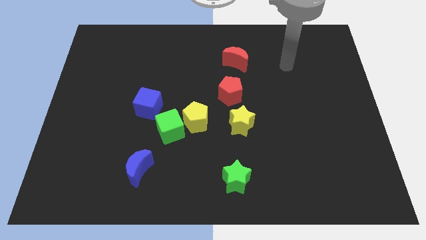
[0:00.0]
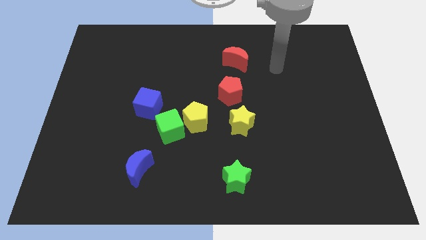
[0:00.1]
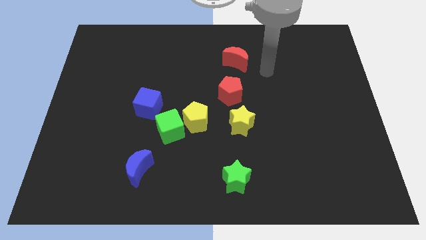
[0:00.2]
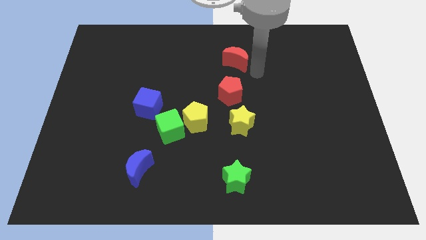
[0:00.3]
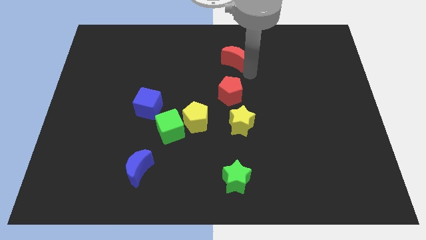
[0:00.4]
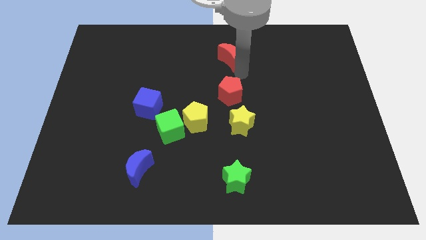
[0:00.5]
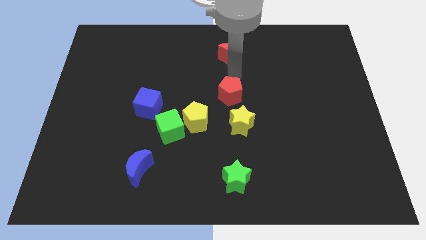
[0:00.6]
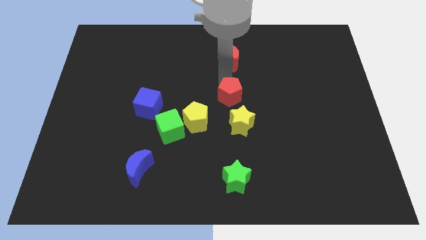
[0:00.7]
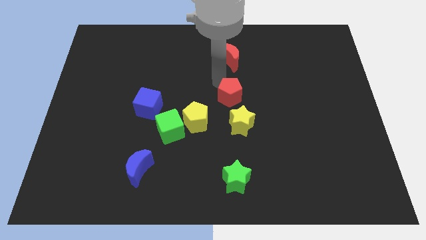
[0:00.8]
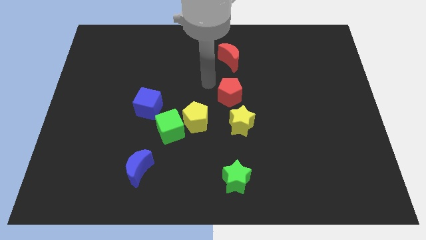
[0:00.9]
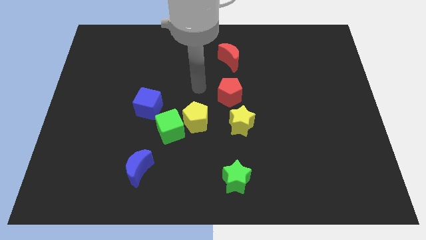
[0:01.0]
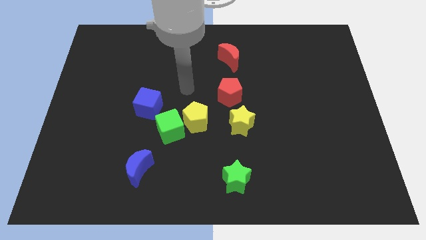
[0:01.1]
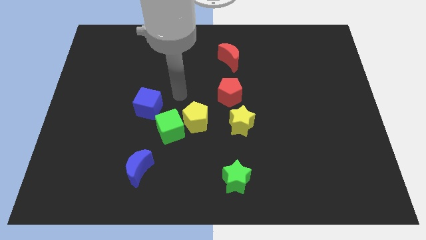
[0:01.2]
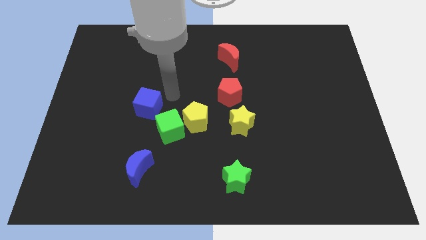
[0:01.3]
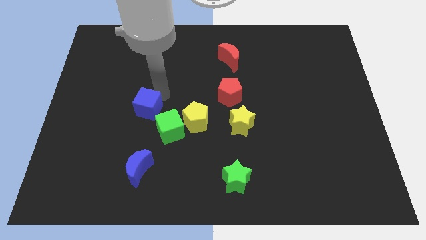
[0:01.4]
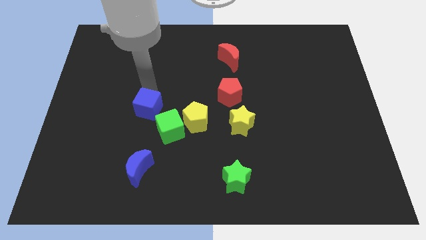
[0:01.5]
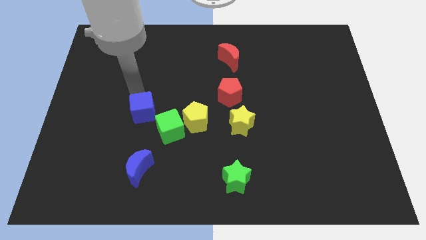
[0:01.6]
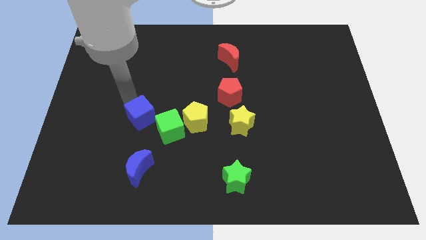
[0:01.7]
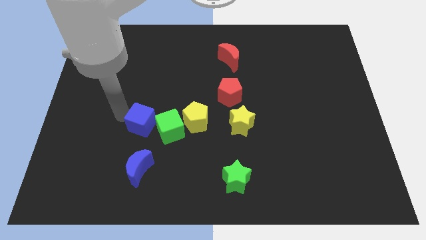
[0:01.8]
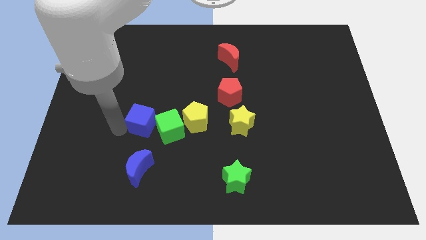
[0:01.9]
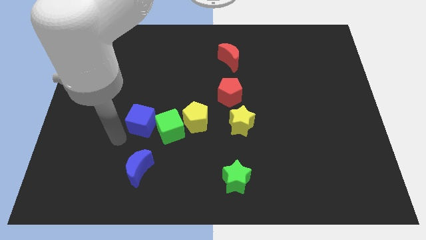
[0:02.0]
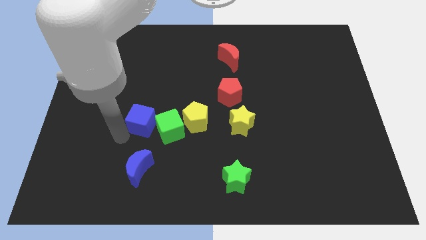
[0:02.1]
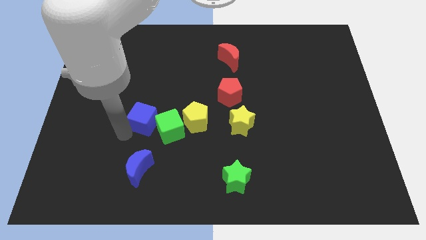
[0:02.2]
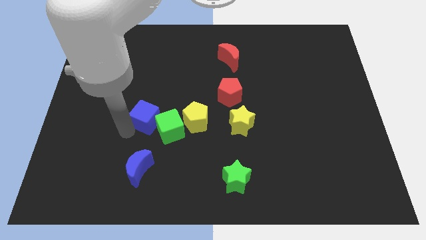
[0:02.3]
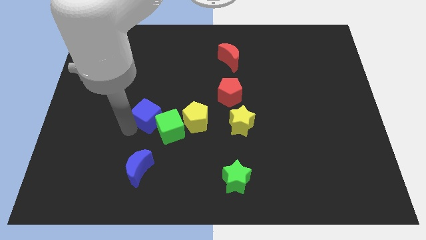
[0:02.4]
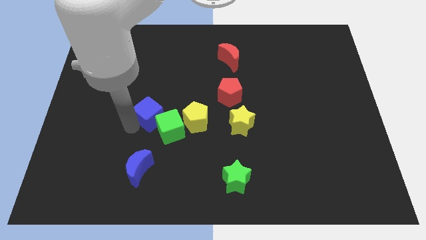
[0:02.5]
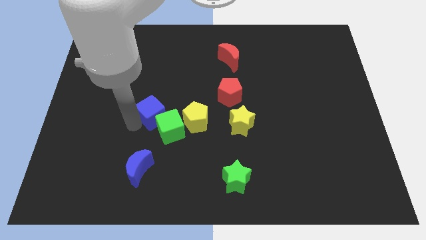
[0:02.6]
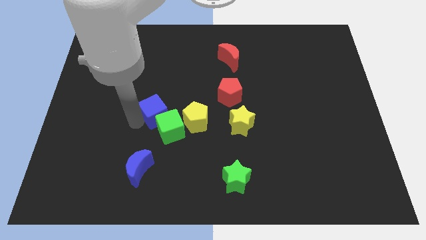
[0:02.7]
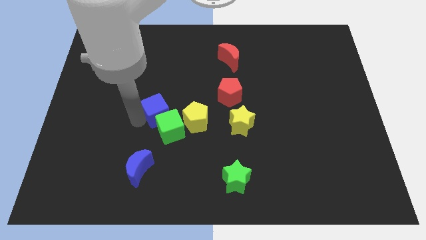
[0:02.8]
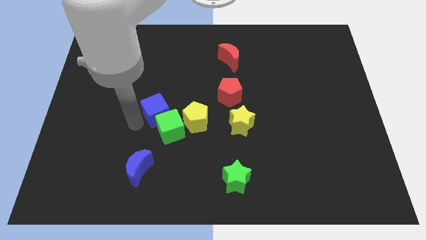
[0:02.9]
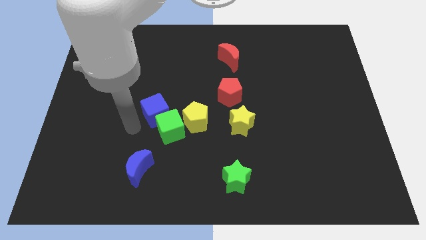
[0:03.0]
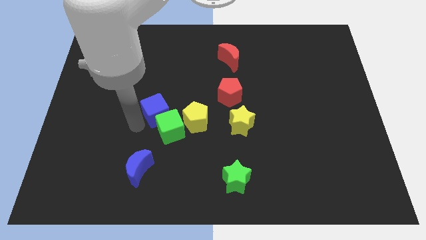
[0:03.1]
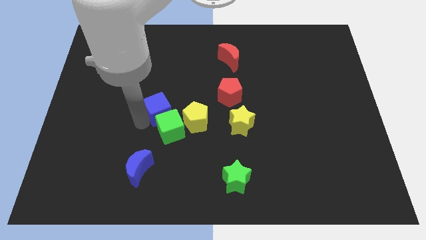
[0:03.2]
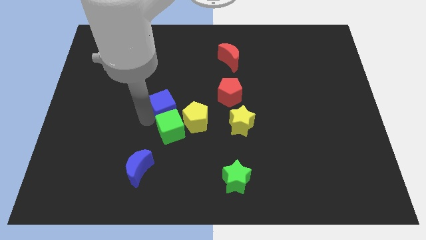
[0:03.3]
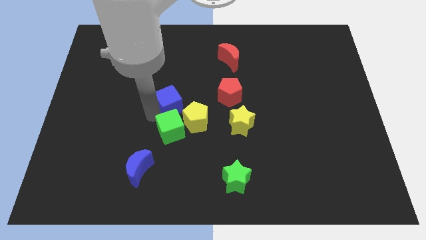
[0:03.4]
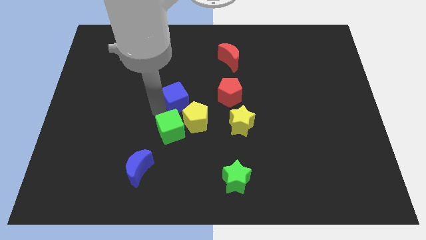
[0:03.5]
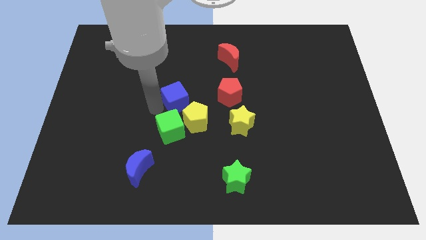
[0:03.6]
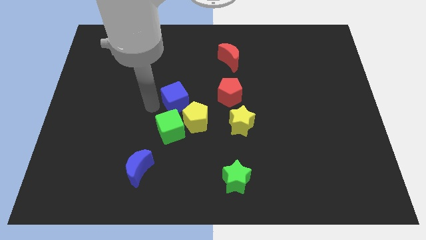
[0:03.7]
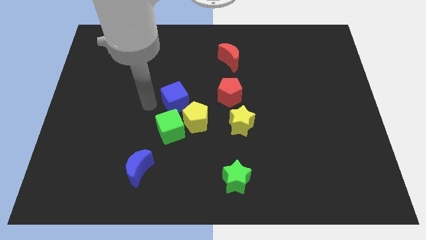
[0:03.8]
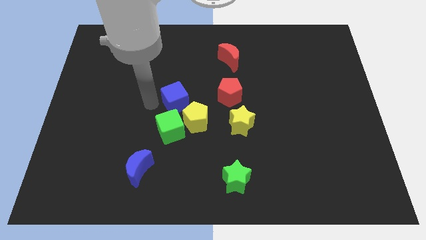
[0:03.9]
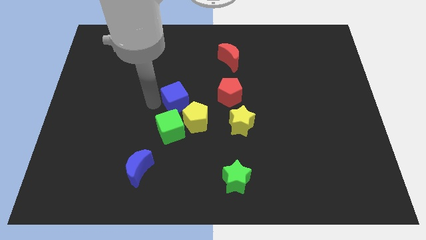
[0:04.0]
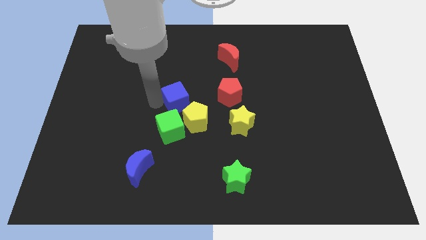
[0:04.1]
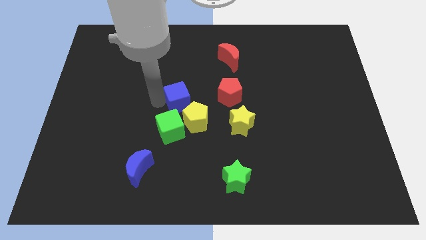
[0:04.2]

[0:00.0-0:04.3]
slightly slide the blue cube right

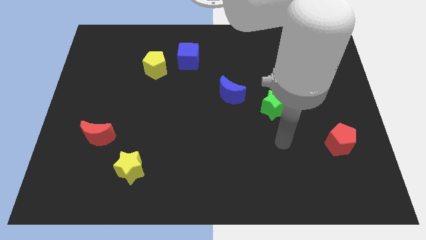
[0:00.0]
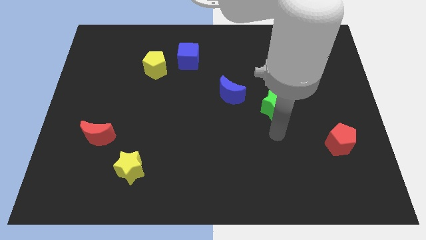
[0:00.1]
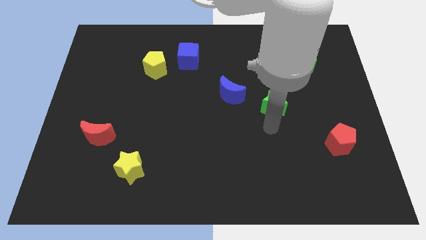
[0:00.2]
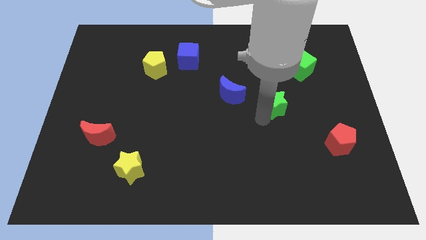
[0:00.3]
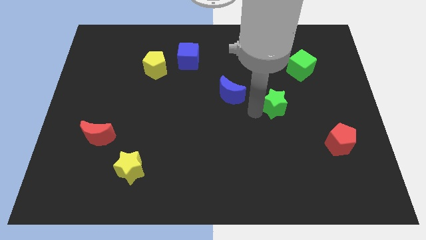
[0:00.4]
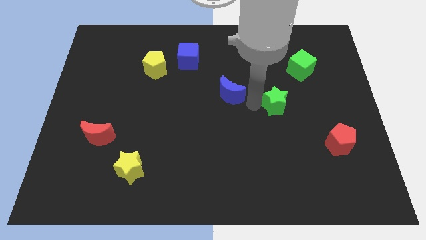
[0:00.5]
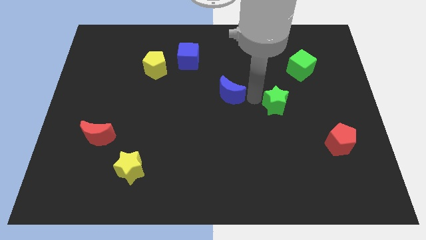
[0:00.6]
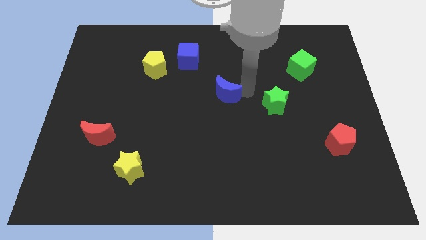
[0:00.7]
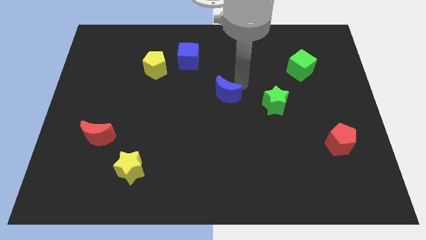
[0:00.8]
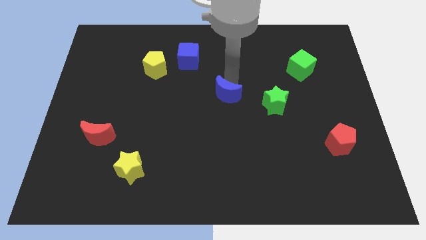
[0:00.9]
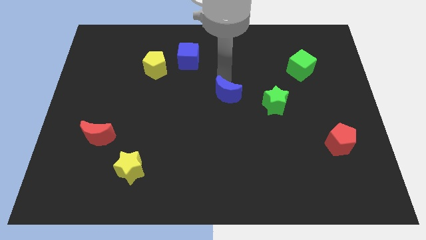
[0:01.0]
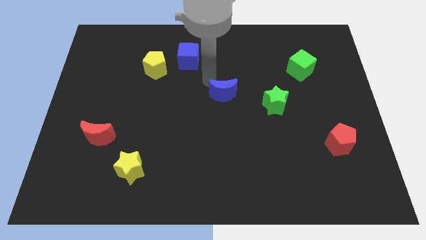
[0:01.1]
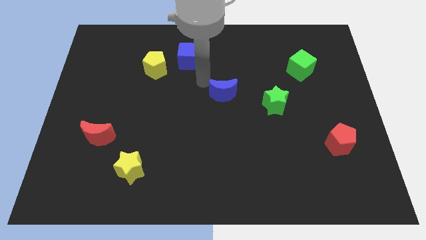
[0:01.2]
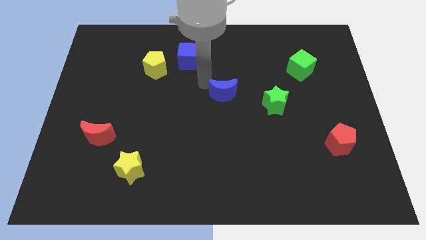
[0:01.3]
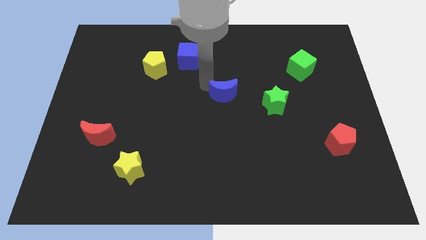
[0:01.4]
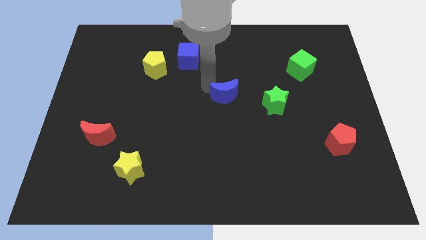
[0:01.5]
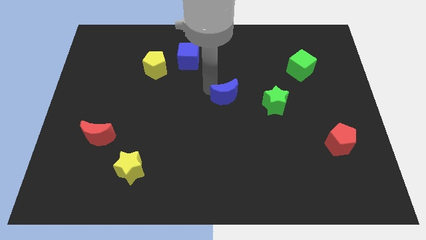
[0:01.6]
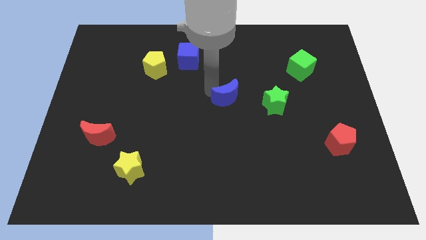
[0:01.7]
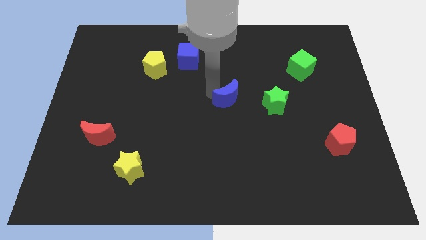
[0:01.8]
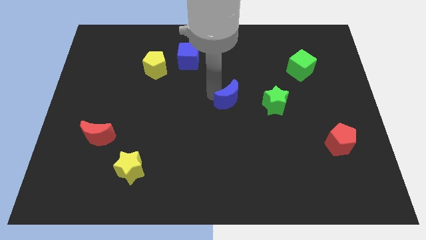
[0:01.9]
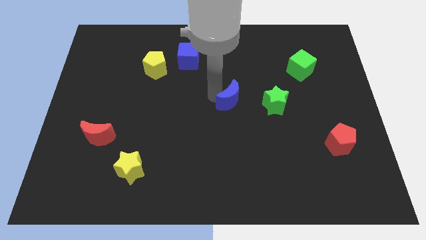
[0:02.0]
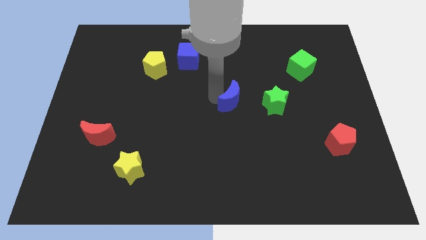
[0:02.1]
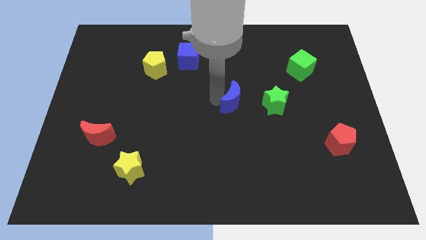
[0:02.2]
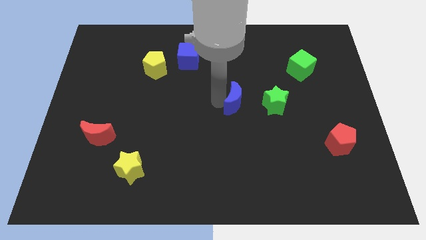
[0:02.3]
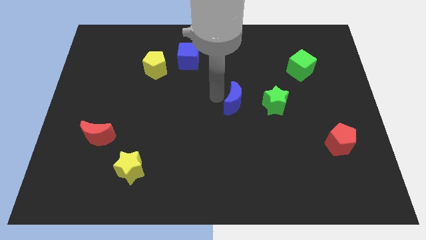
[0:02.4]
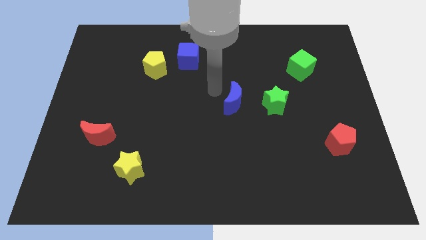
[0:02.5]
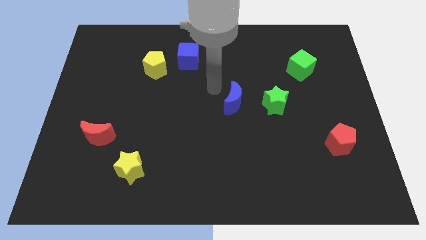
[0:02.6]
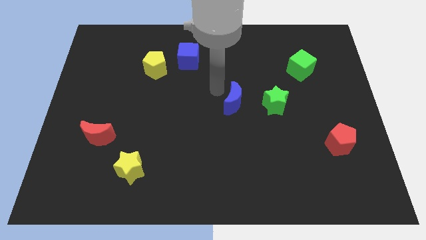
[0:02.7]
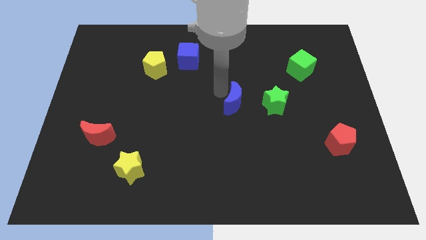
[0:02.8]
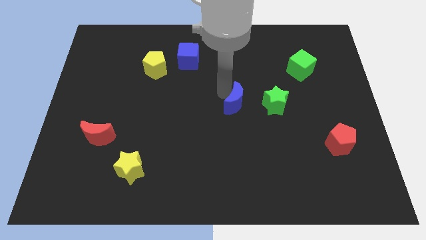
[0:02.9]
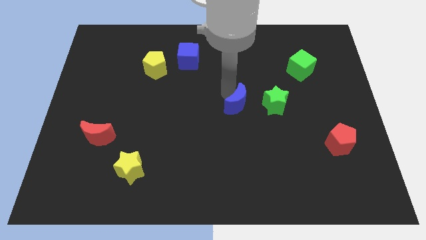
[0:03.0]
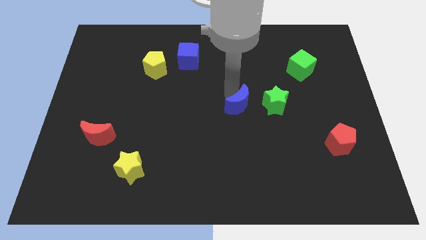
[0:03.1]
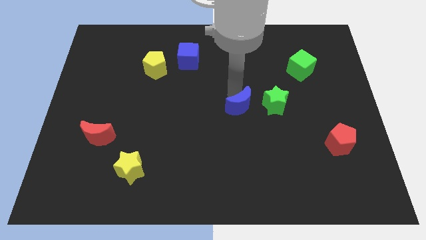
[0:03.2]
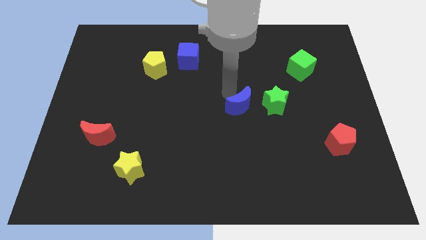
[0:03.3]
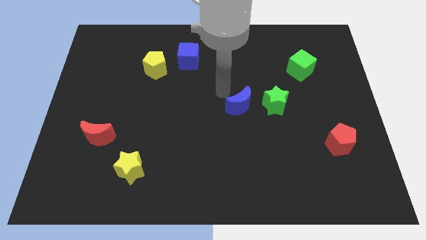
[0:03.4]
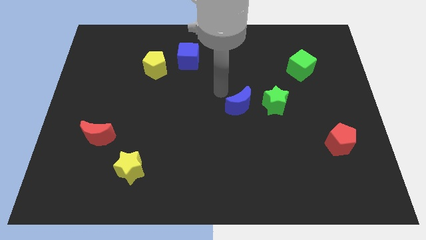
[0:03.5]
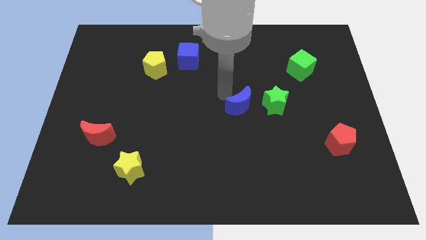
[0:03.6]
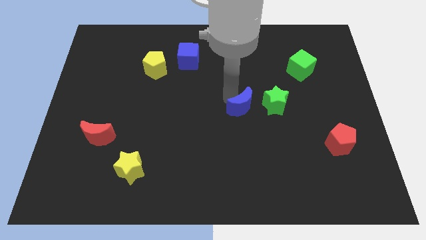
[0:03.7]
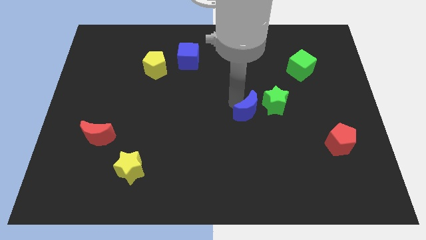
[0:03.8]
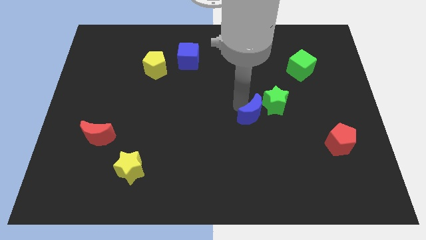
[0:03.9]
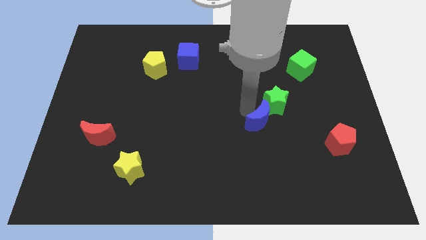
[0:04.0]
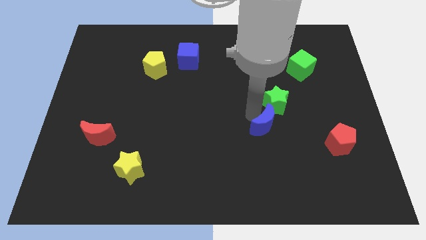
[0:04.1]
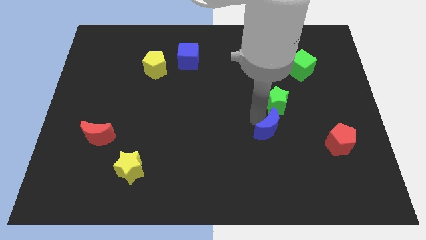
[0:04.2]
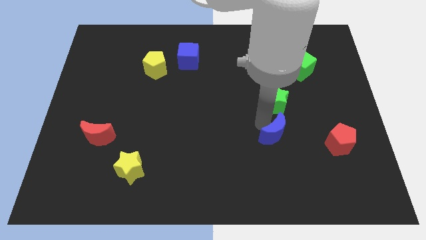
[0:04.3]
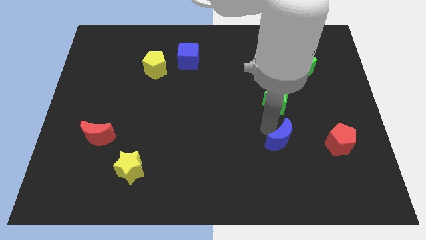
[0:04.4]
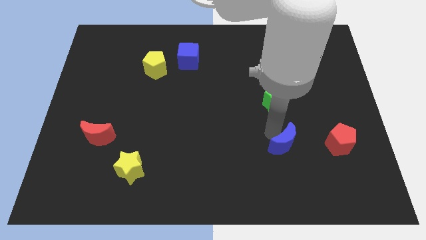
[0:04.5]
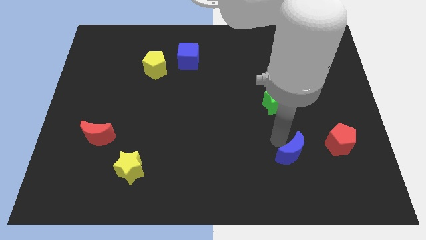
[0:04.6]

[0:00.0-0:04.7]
push the blue moon down and to the right
